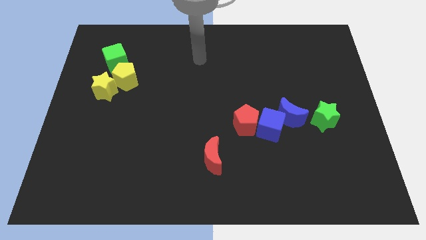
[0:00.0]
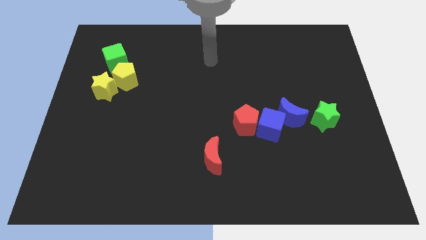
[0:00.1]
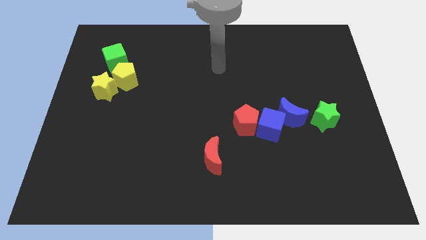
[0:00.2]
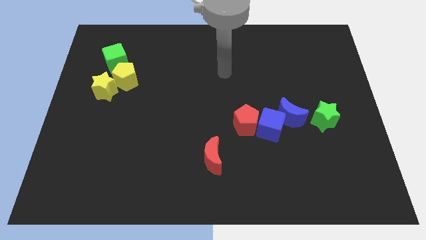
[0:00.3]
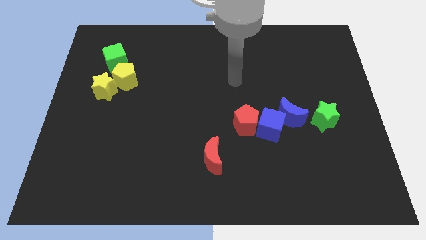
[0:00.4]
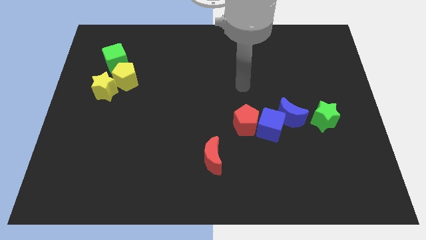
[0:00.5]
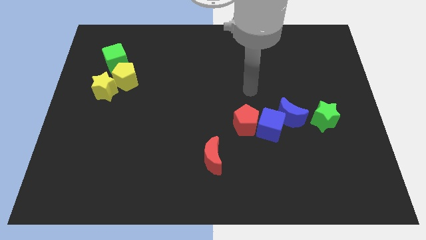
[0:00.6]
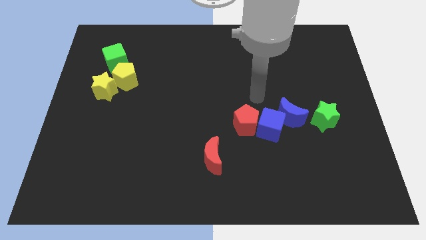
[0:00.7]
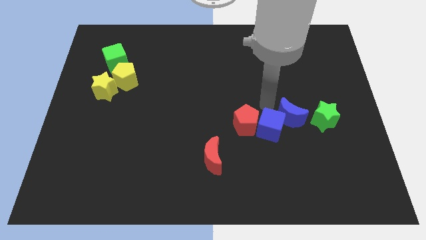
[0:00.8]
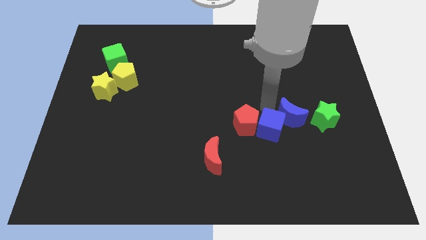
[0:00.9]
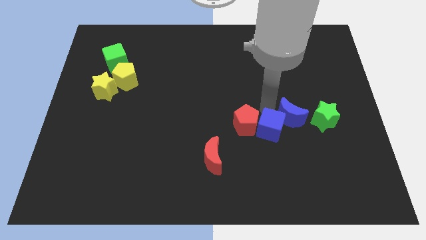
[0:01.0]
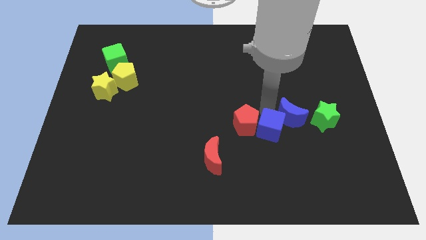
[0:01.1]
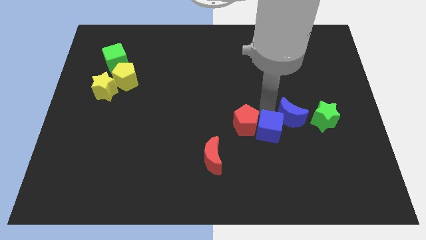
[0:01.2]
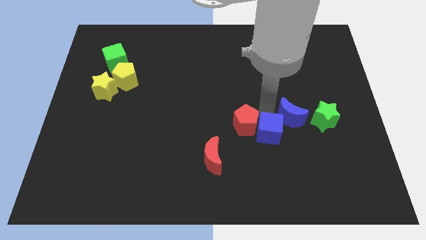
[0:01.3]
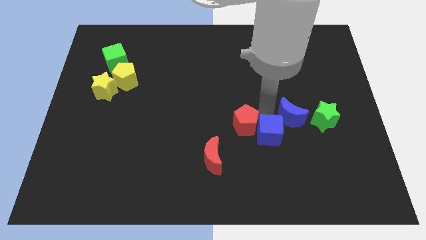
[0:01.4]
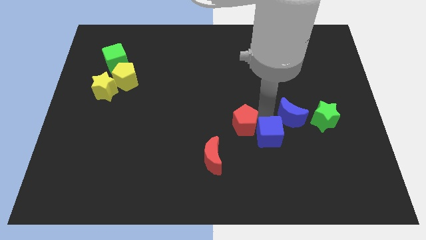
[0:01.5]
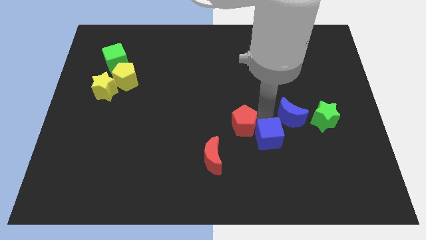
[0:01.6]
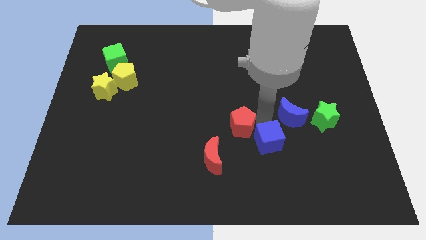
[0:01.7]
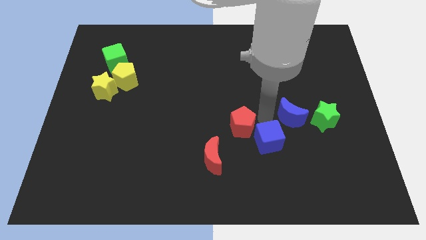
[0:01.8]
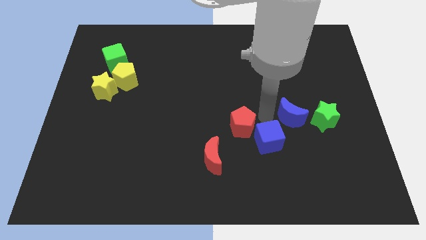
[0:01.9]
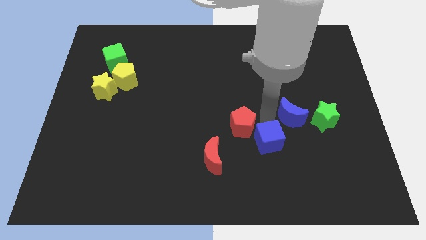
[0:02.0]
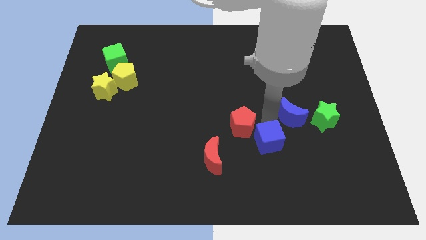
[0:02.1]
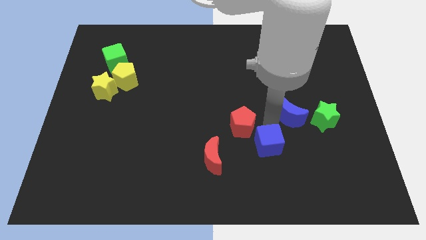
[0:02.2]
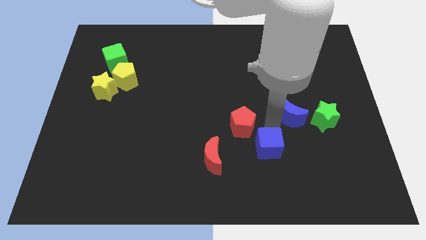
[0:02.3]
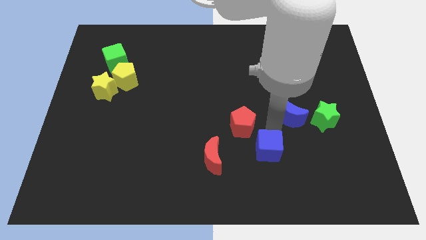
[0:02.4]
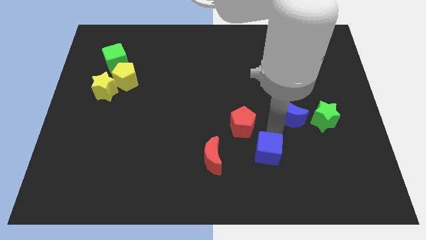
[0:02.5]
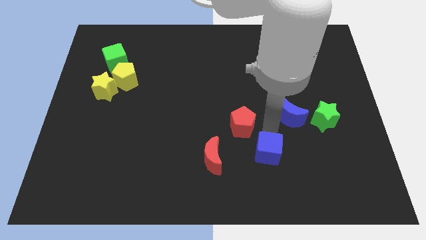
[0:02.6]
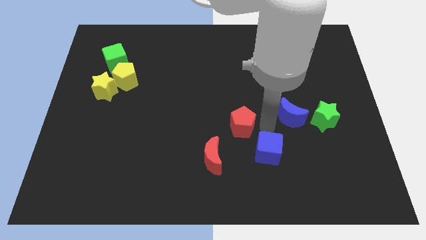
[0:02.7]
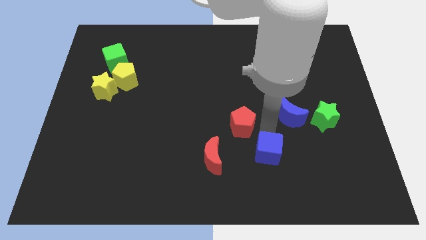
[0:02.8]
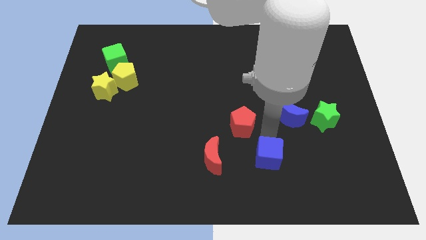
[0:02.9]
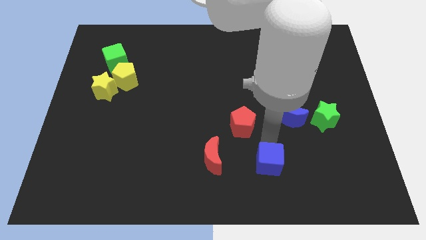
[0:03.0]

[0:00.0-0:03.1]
move the blue cube away from the blue moon and red pentagon

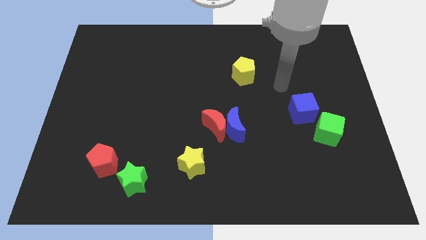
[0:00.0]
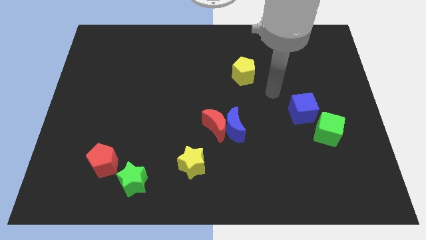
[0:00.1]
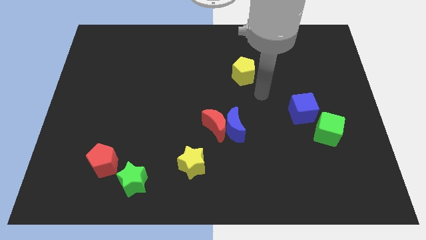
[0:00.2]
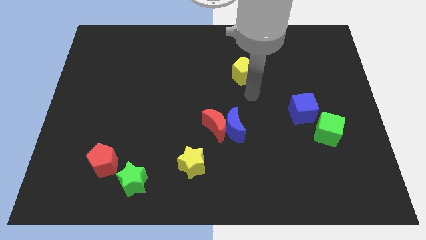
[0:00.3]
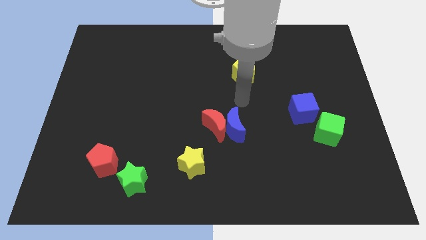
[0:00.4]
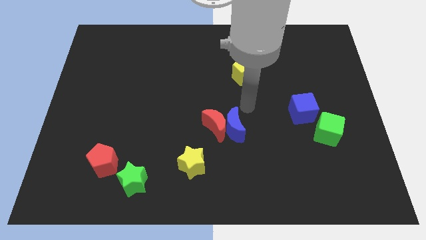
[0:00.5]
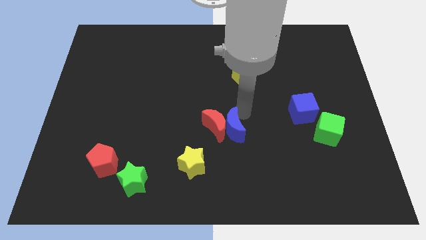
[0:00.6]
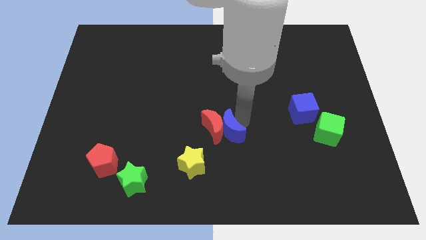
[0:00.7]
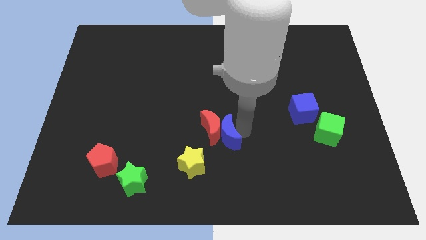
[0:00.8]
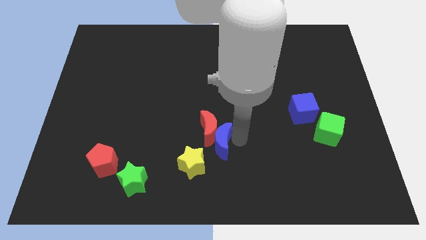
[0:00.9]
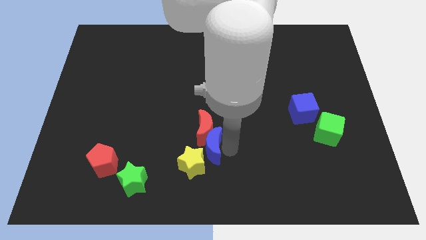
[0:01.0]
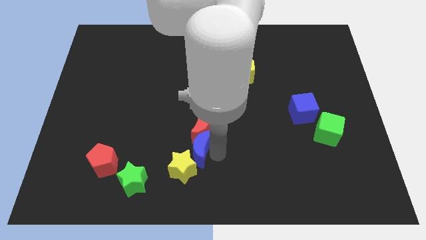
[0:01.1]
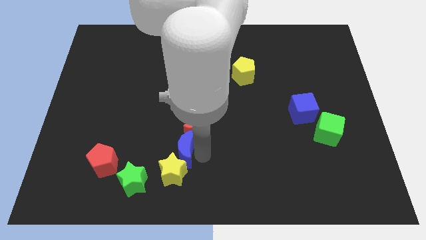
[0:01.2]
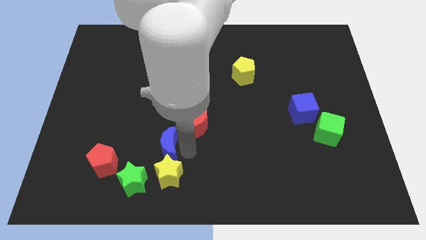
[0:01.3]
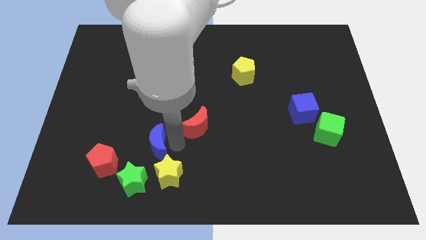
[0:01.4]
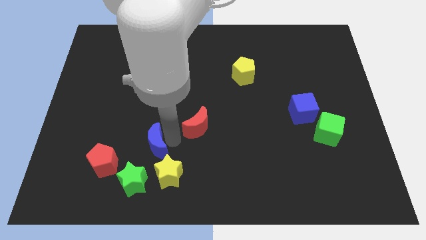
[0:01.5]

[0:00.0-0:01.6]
pull the red moon apart from the blue moon

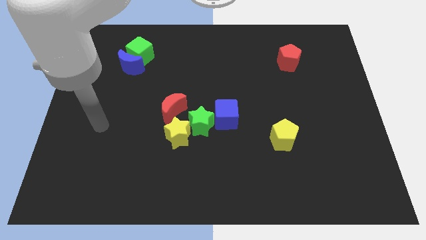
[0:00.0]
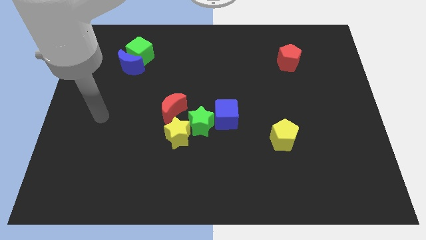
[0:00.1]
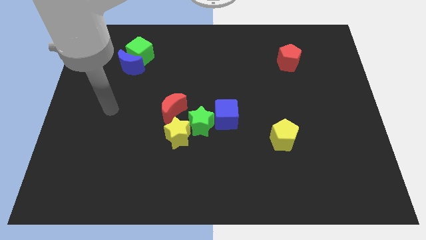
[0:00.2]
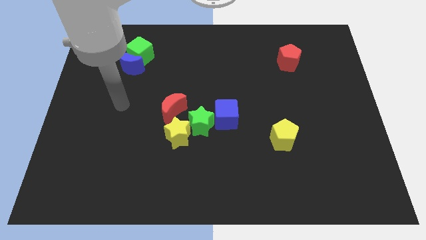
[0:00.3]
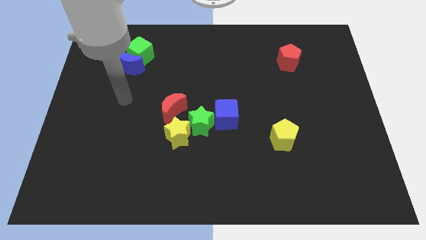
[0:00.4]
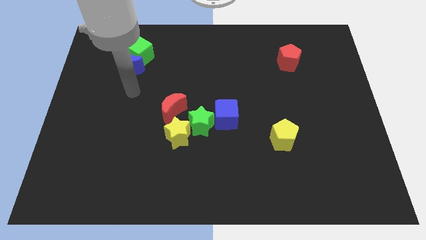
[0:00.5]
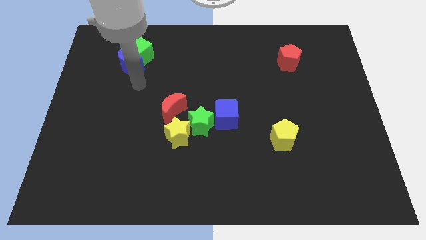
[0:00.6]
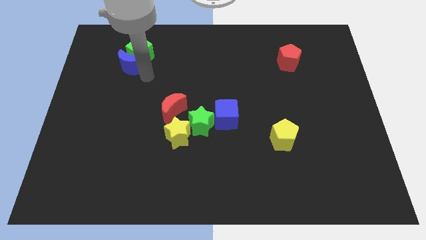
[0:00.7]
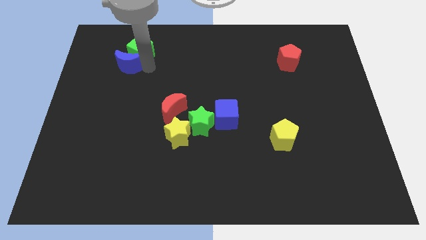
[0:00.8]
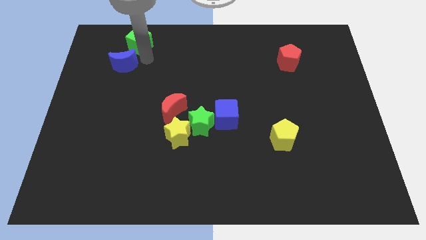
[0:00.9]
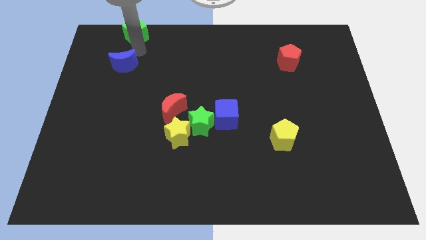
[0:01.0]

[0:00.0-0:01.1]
separate the blue moon from the green cube

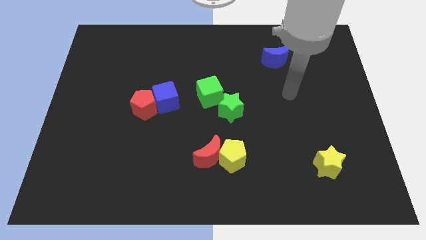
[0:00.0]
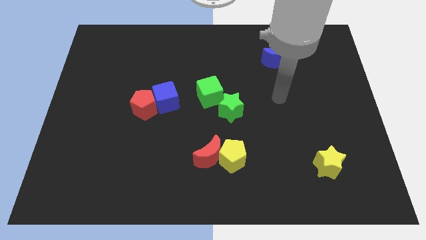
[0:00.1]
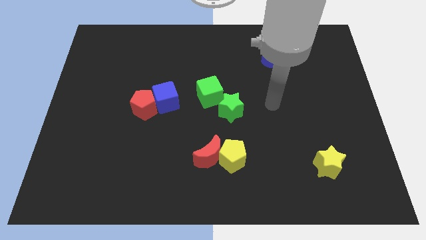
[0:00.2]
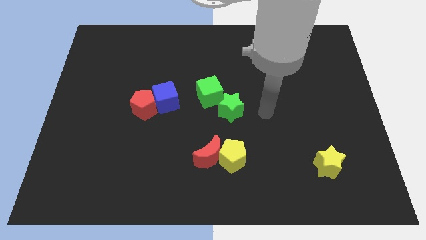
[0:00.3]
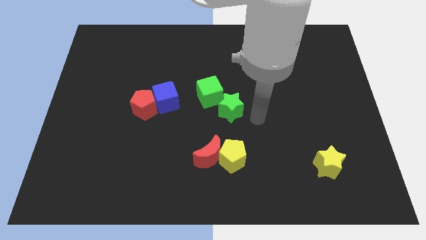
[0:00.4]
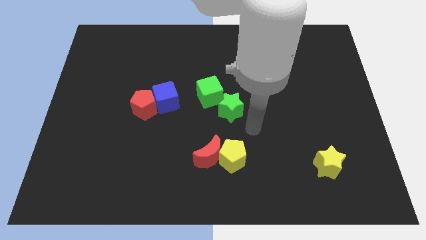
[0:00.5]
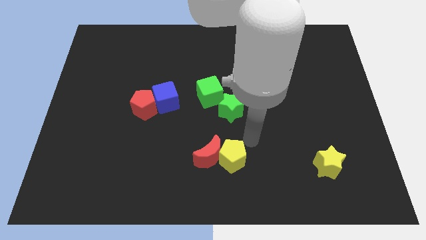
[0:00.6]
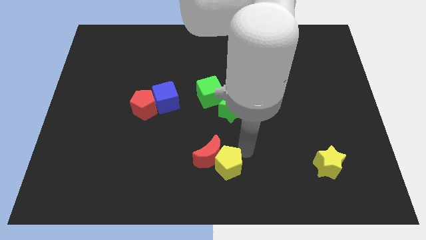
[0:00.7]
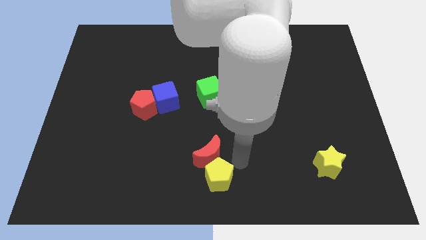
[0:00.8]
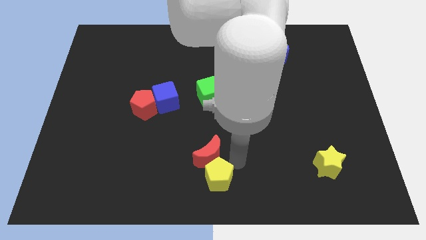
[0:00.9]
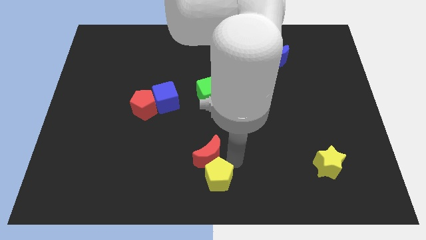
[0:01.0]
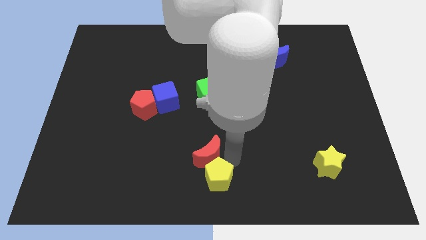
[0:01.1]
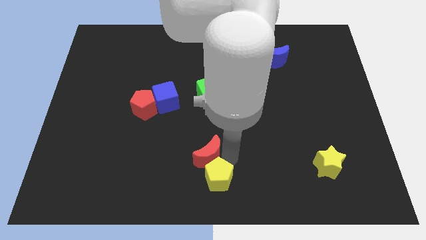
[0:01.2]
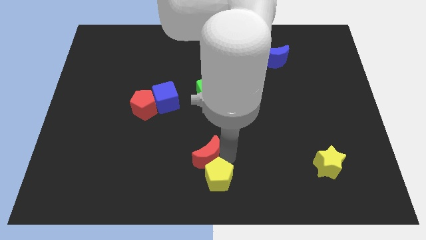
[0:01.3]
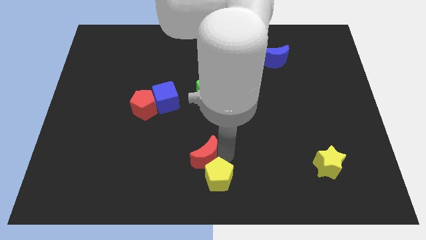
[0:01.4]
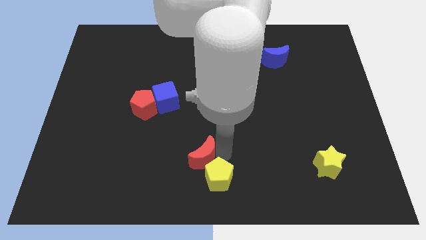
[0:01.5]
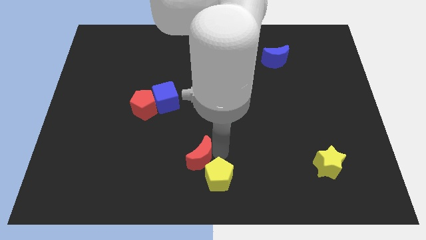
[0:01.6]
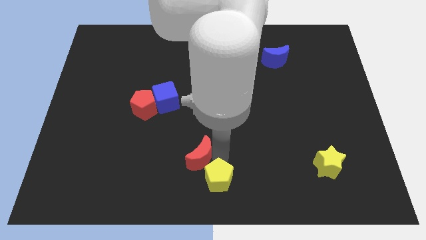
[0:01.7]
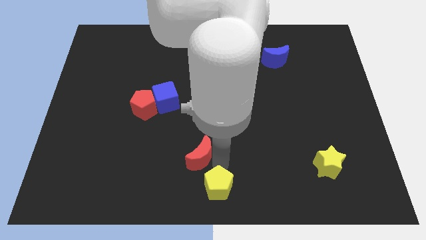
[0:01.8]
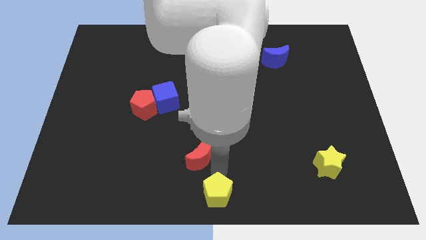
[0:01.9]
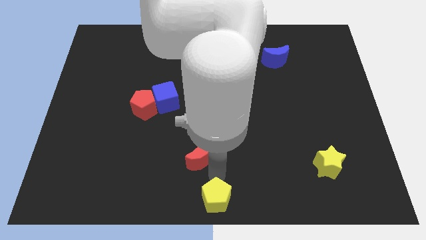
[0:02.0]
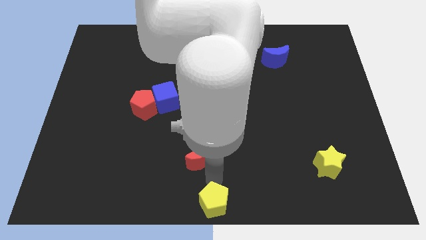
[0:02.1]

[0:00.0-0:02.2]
pull the red moon apart from the yellow pentagon

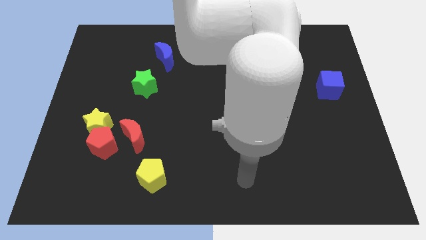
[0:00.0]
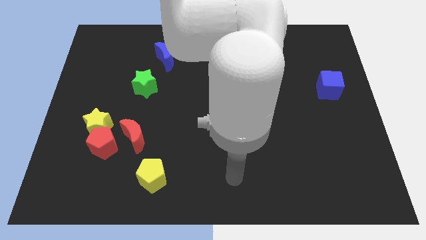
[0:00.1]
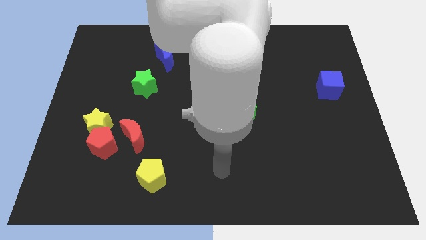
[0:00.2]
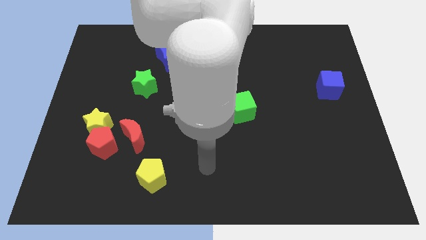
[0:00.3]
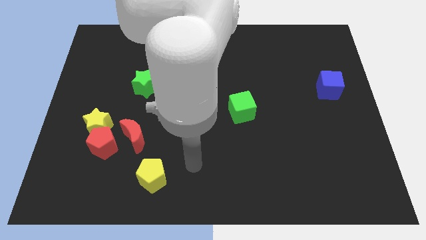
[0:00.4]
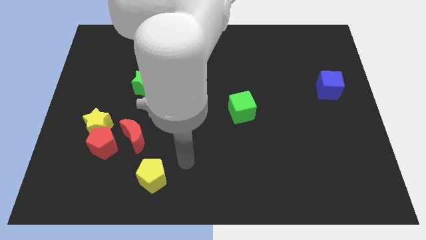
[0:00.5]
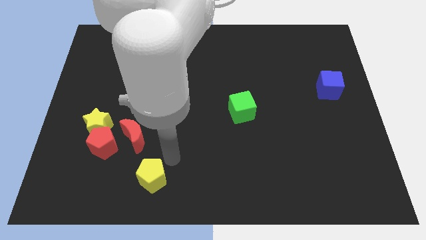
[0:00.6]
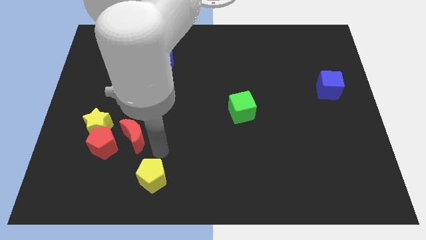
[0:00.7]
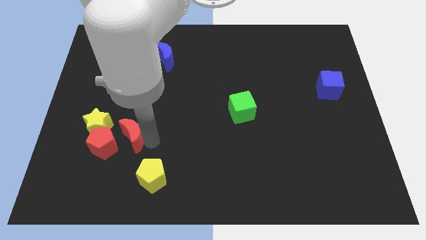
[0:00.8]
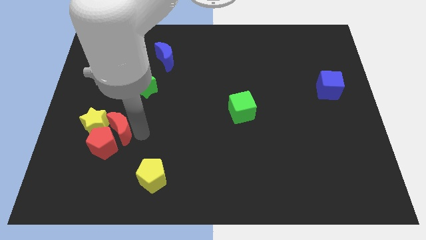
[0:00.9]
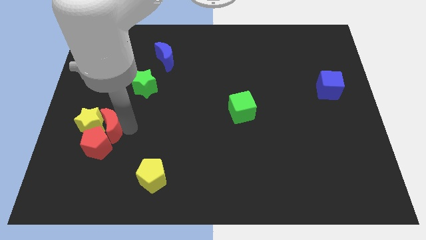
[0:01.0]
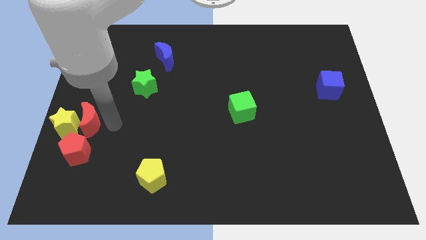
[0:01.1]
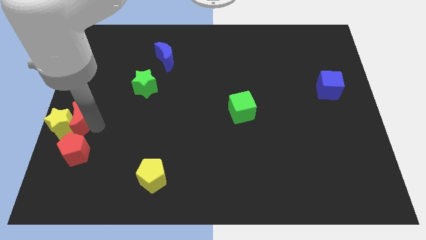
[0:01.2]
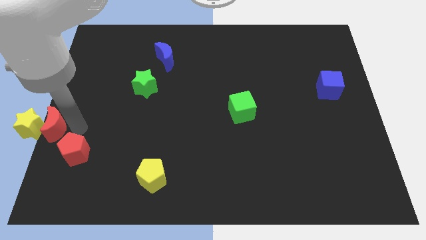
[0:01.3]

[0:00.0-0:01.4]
move the red pentagon away from the yellow star and red moon
